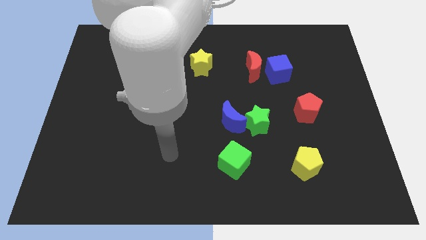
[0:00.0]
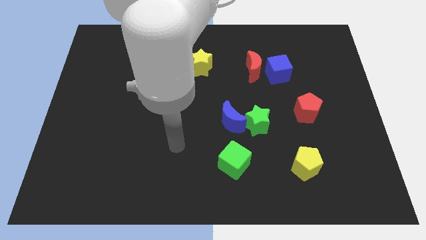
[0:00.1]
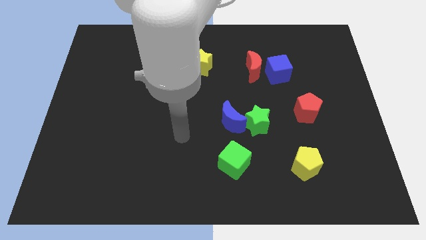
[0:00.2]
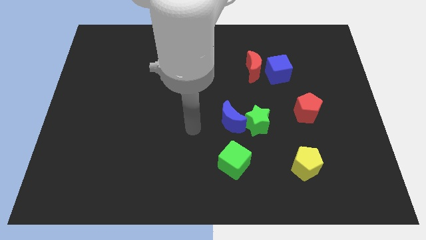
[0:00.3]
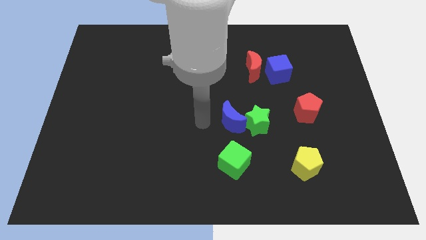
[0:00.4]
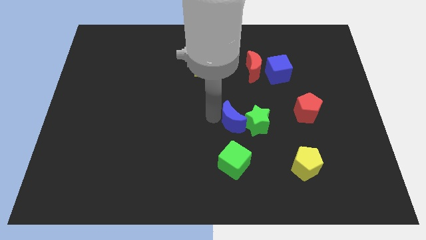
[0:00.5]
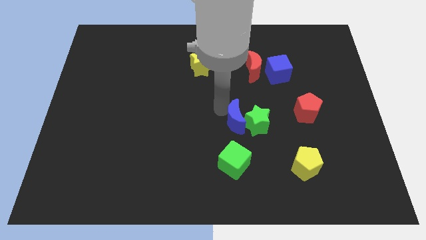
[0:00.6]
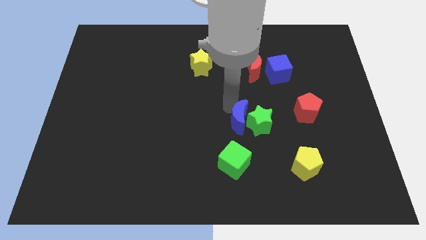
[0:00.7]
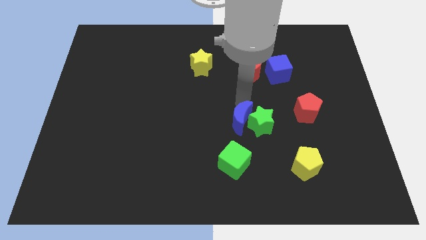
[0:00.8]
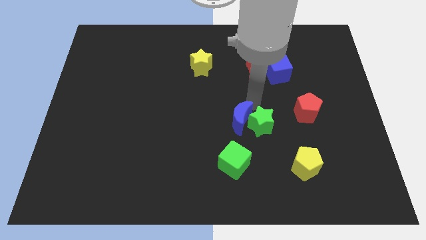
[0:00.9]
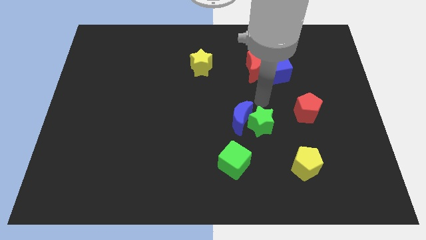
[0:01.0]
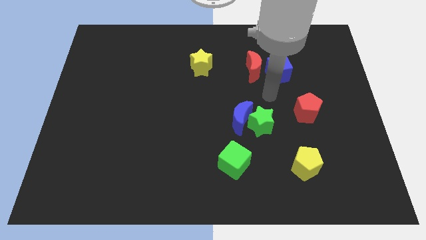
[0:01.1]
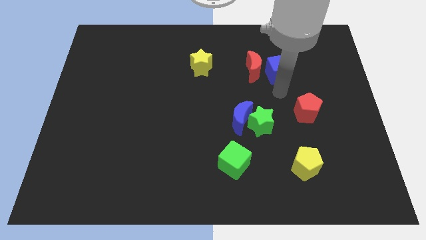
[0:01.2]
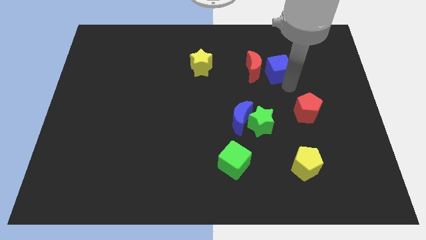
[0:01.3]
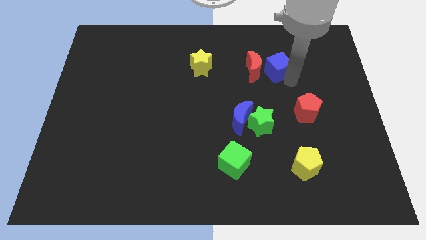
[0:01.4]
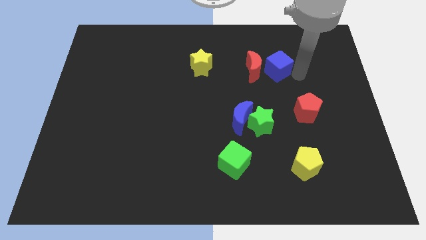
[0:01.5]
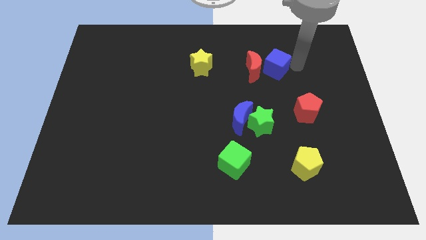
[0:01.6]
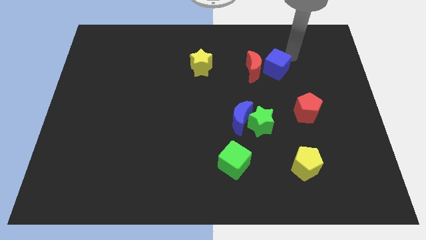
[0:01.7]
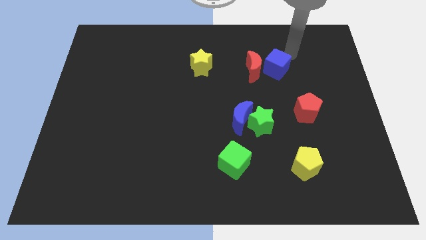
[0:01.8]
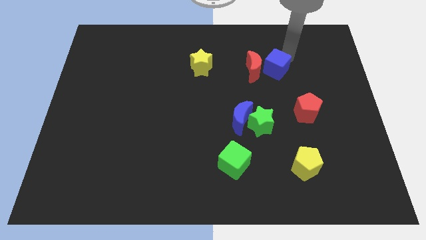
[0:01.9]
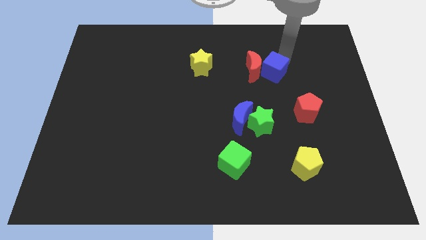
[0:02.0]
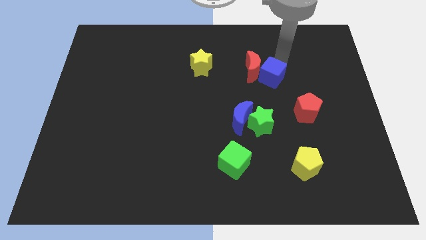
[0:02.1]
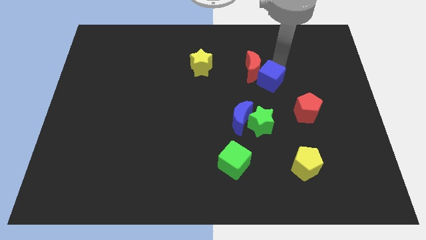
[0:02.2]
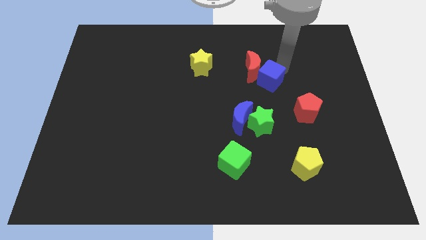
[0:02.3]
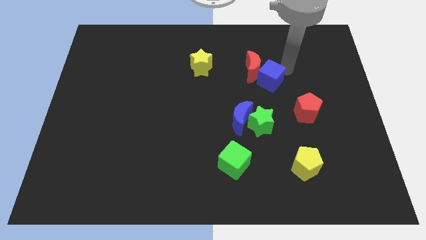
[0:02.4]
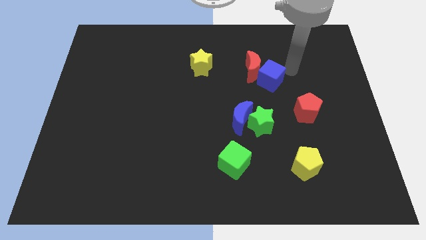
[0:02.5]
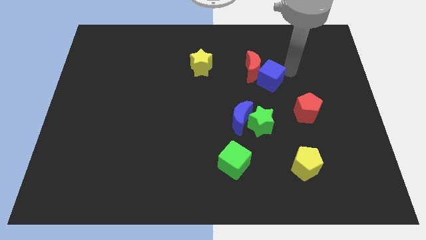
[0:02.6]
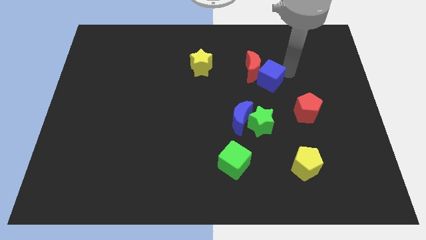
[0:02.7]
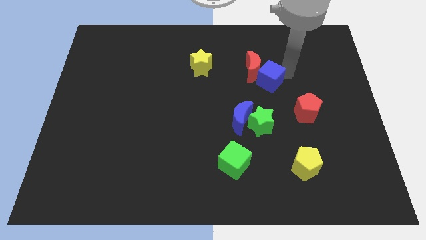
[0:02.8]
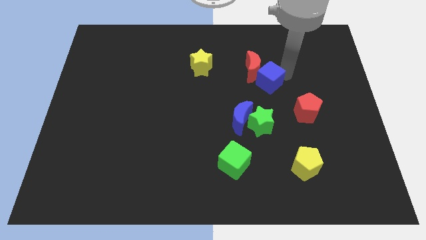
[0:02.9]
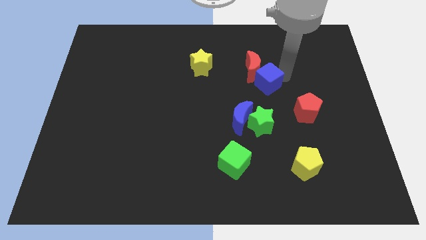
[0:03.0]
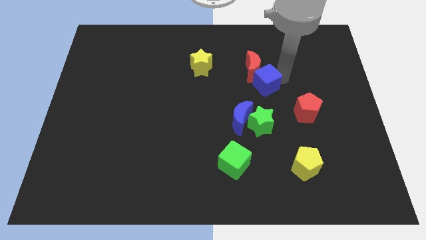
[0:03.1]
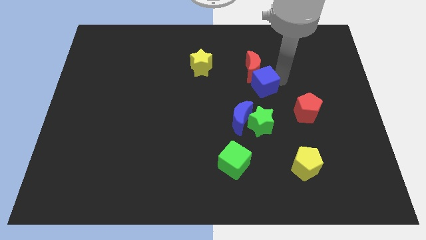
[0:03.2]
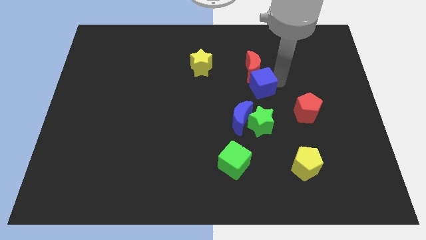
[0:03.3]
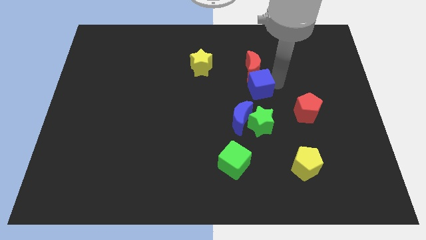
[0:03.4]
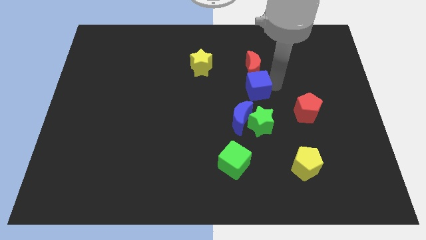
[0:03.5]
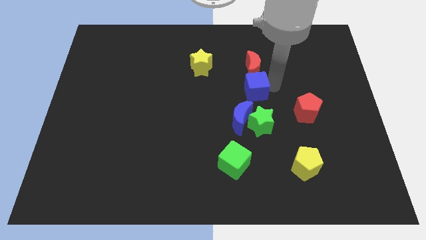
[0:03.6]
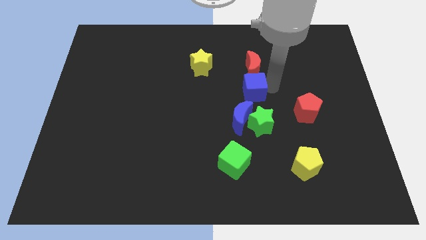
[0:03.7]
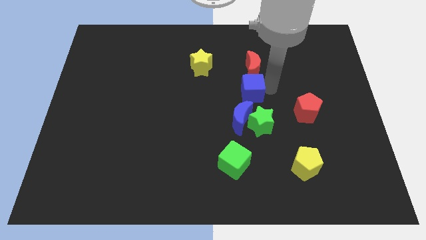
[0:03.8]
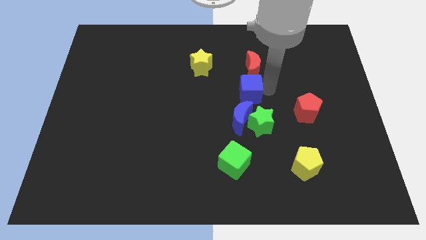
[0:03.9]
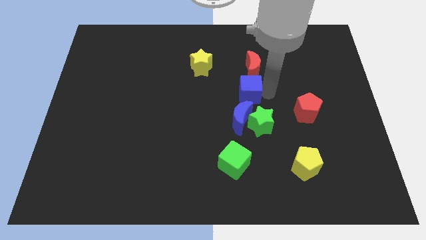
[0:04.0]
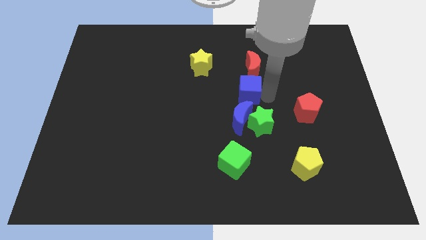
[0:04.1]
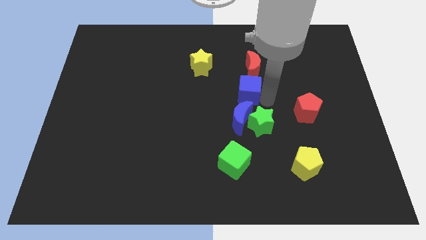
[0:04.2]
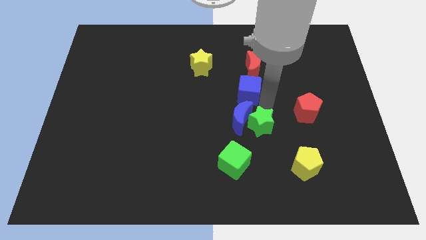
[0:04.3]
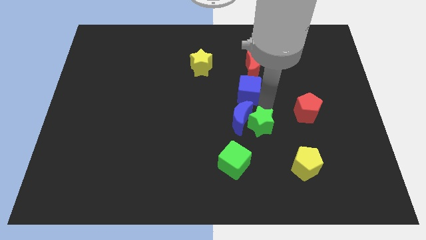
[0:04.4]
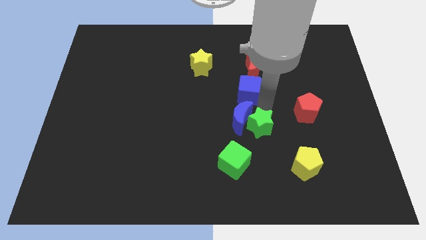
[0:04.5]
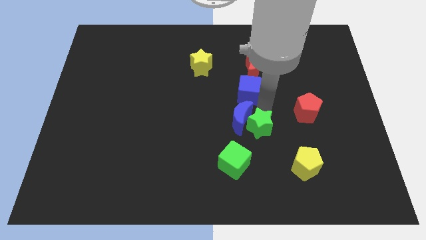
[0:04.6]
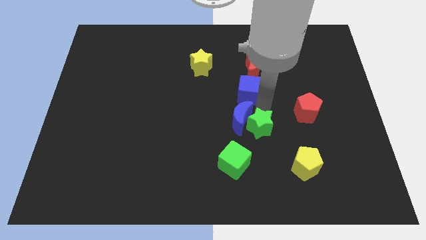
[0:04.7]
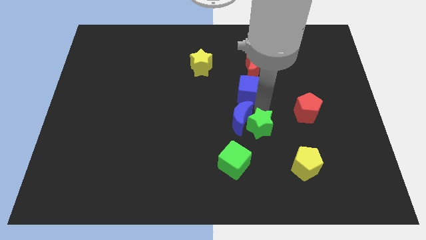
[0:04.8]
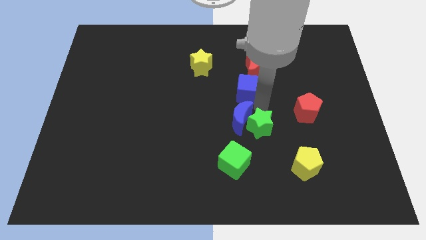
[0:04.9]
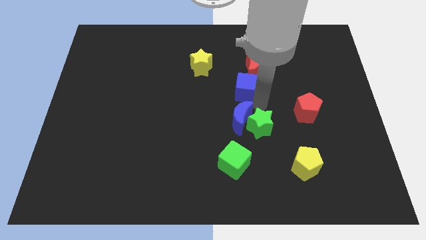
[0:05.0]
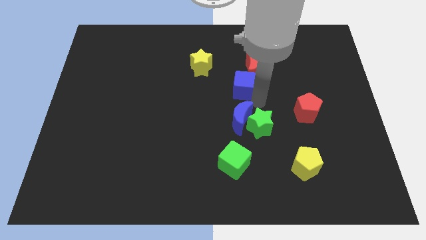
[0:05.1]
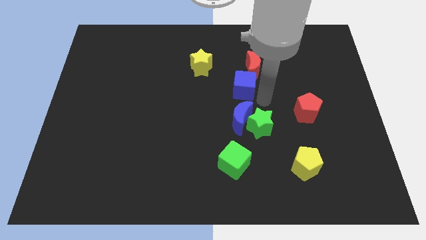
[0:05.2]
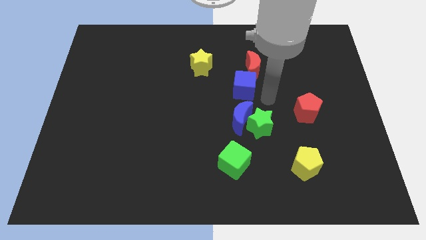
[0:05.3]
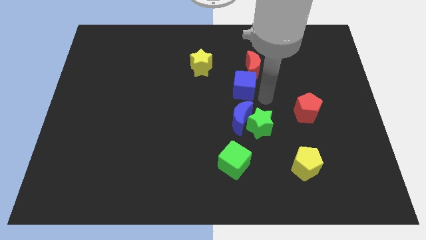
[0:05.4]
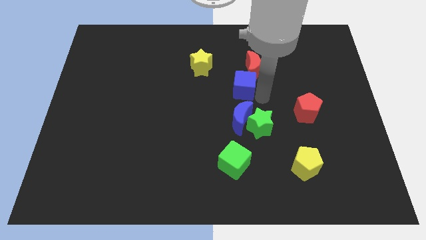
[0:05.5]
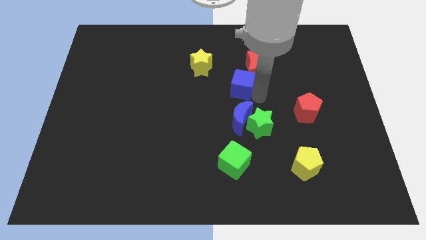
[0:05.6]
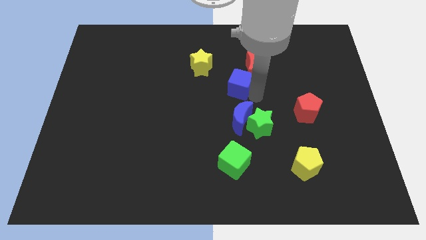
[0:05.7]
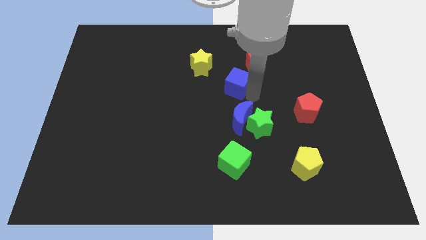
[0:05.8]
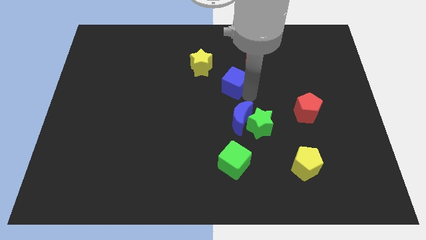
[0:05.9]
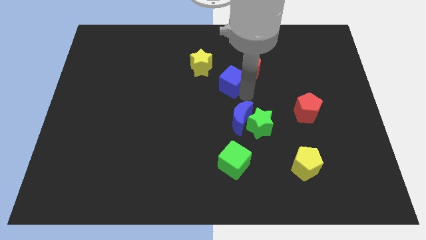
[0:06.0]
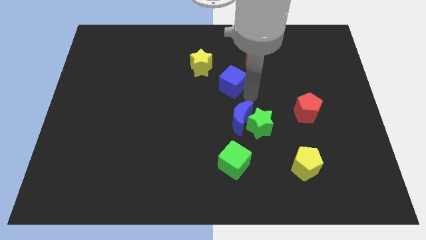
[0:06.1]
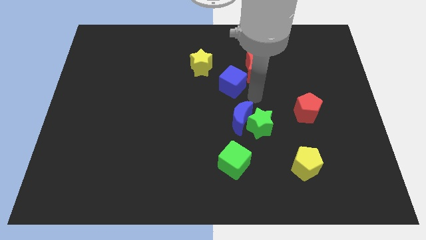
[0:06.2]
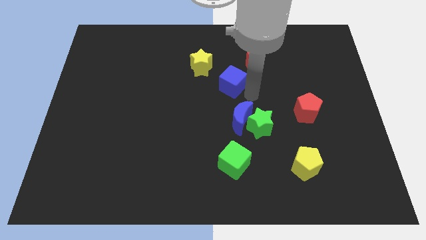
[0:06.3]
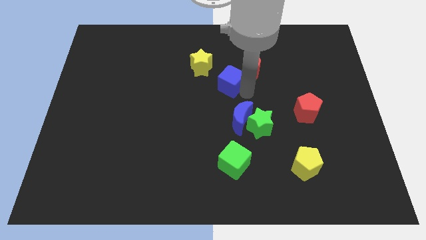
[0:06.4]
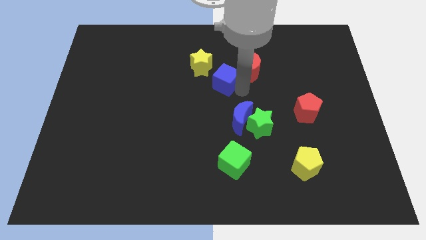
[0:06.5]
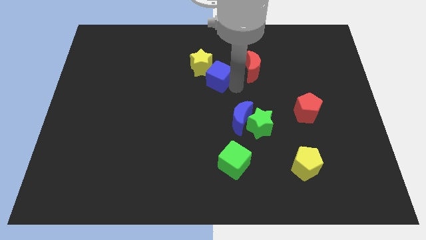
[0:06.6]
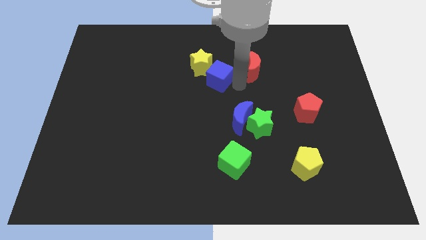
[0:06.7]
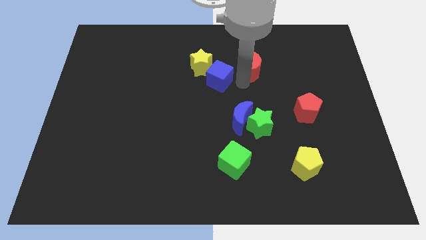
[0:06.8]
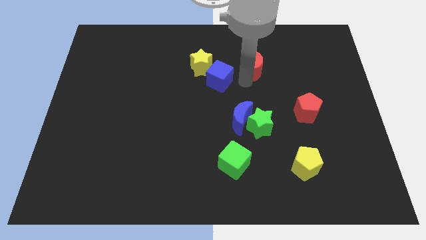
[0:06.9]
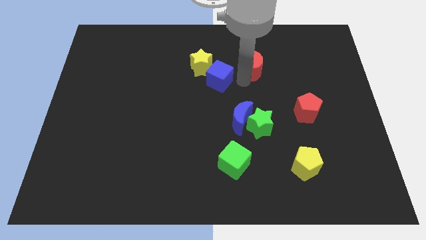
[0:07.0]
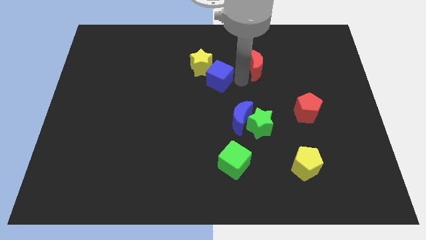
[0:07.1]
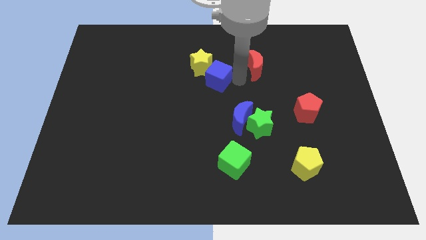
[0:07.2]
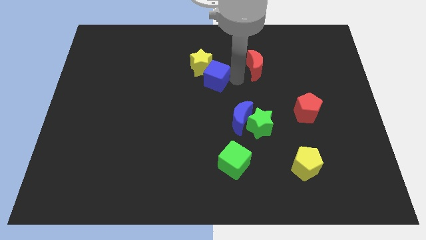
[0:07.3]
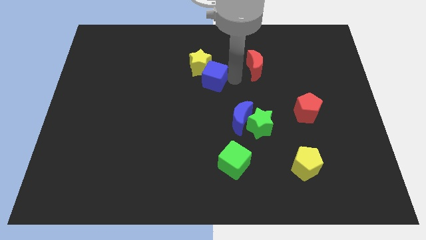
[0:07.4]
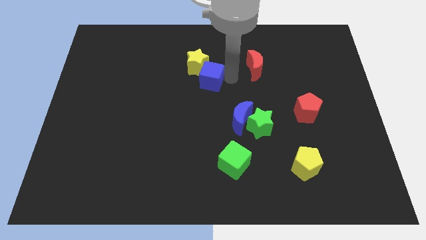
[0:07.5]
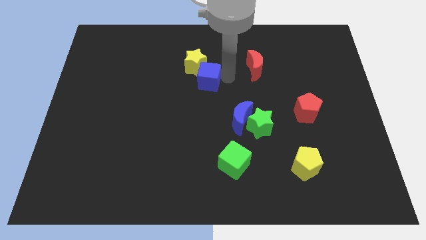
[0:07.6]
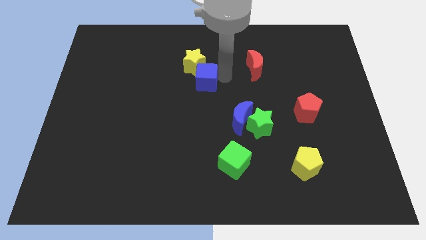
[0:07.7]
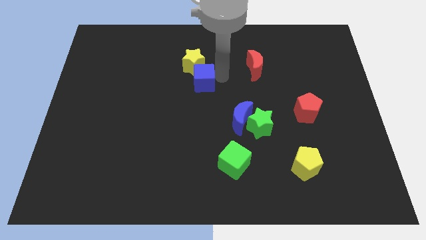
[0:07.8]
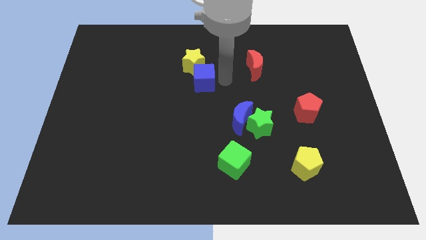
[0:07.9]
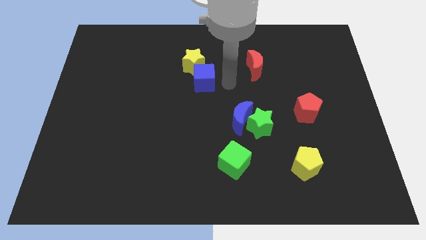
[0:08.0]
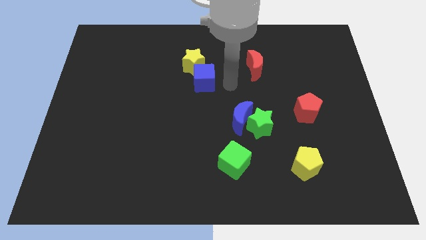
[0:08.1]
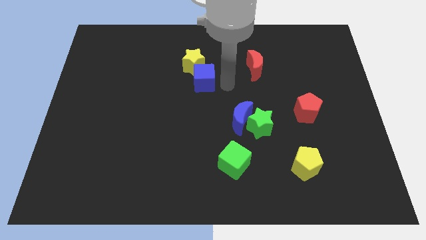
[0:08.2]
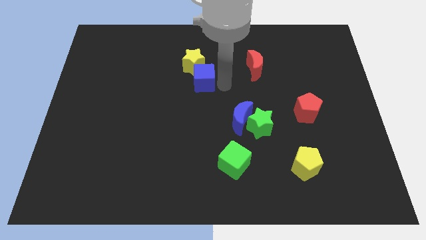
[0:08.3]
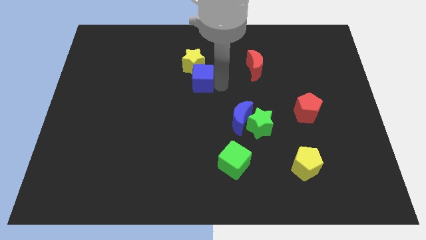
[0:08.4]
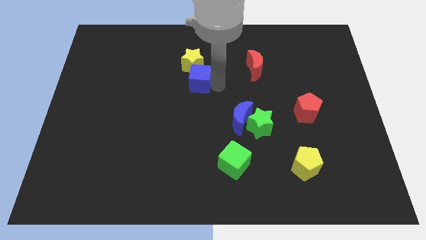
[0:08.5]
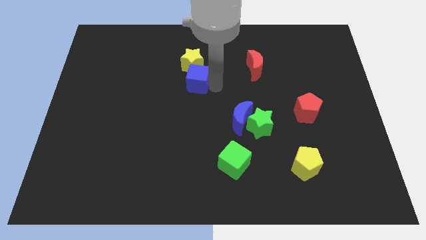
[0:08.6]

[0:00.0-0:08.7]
move the blue cube left
